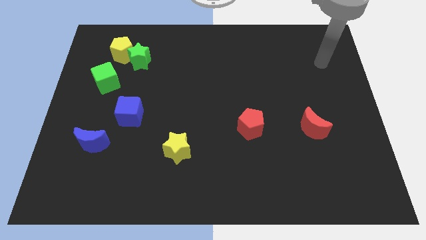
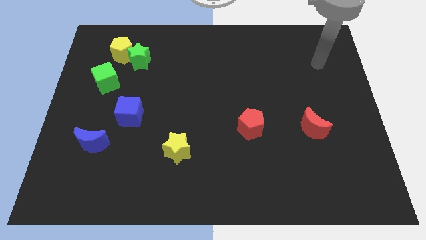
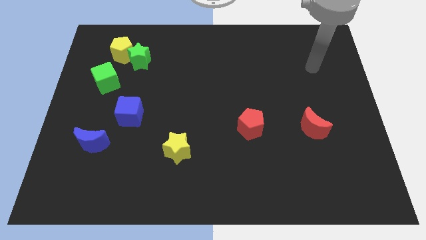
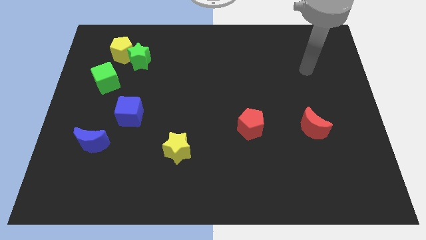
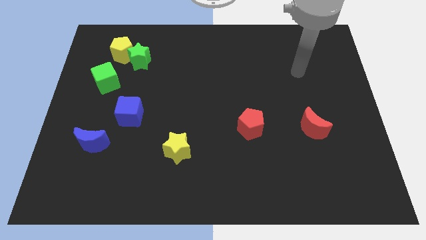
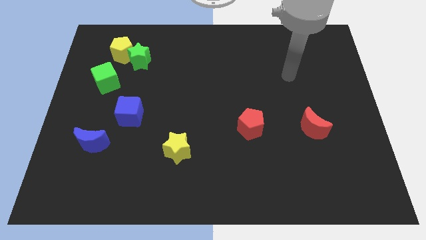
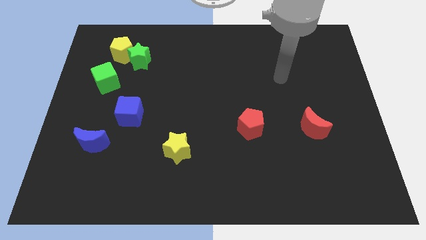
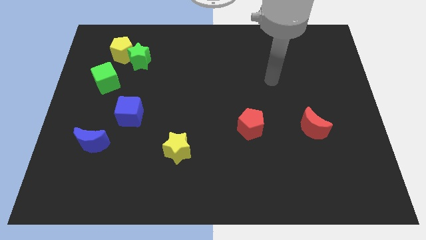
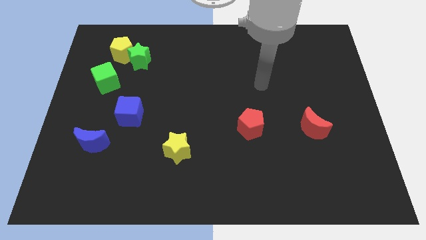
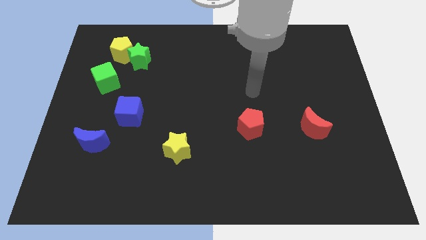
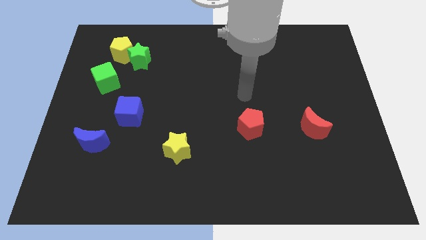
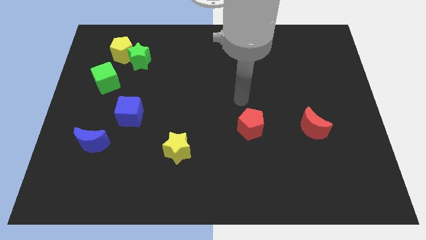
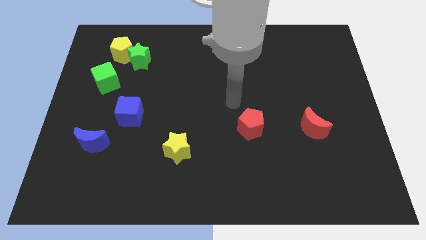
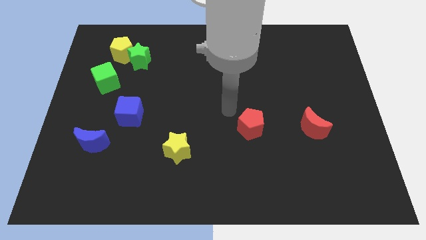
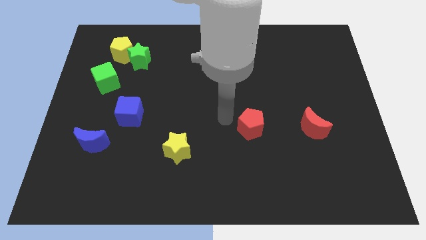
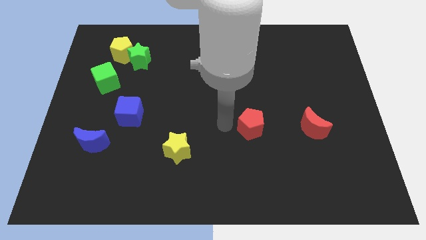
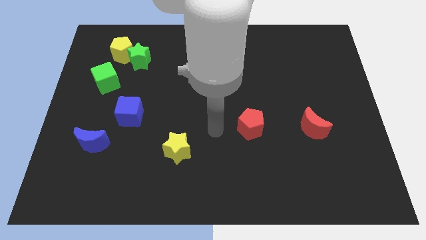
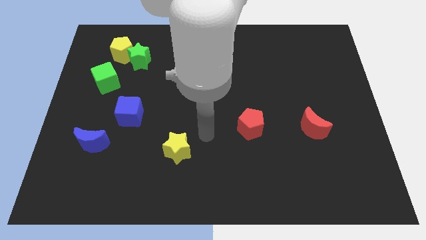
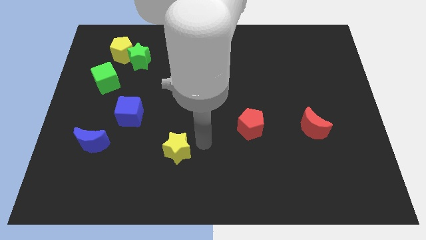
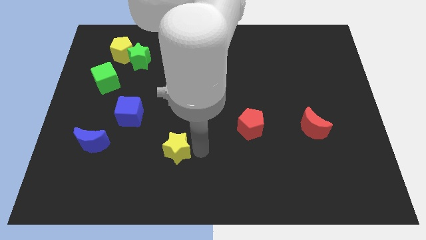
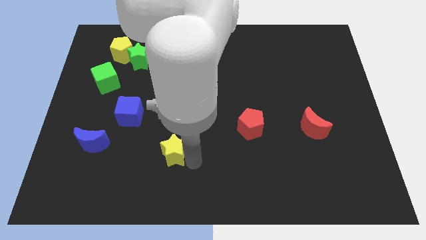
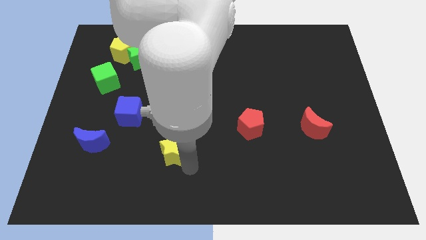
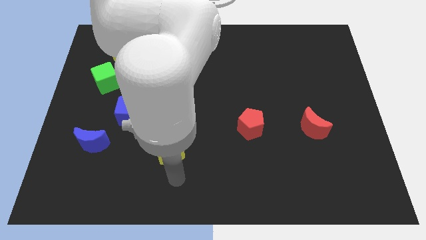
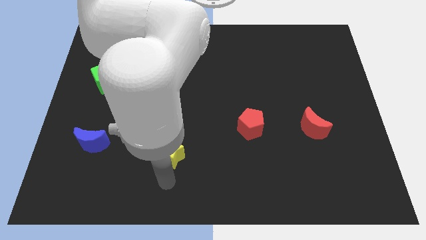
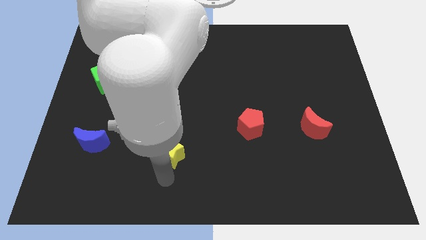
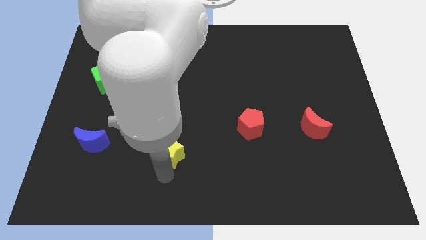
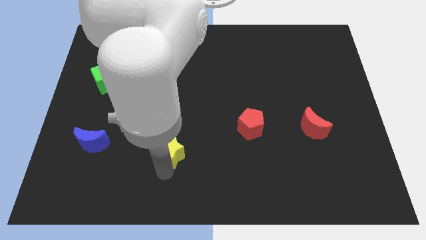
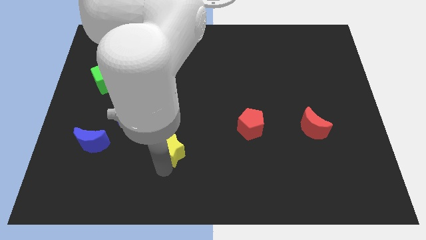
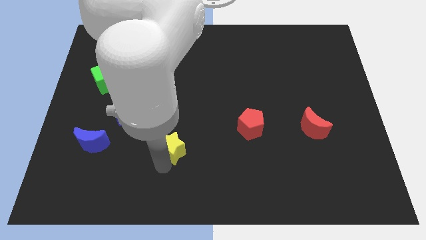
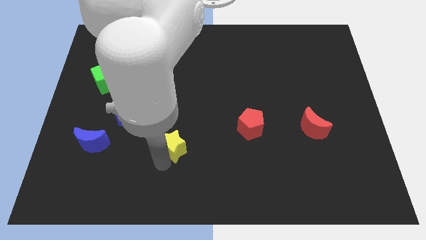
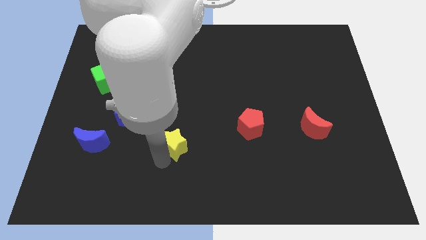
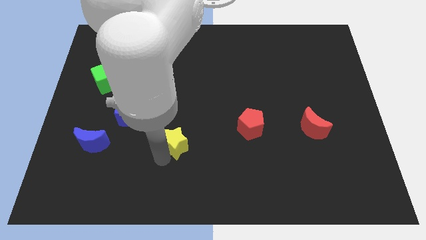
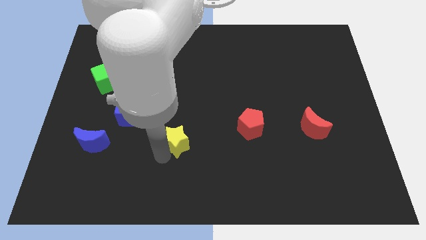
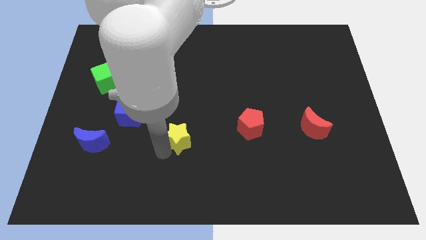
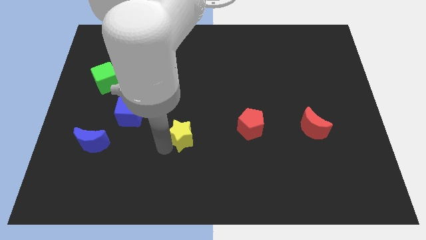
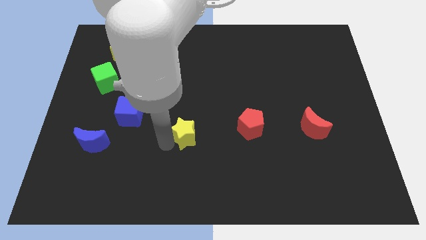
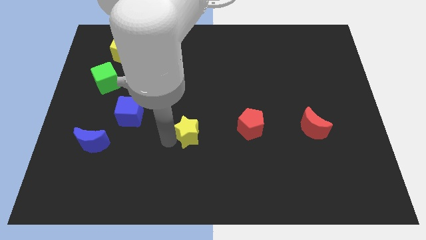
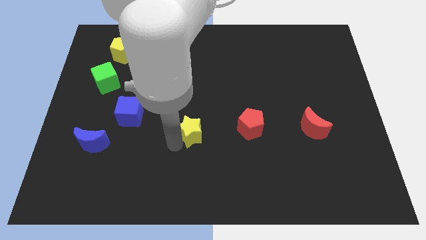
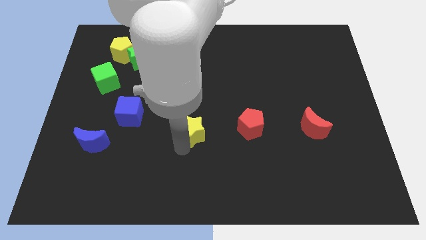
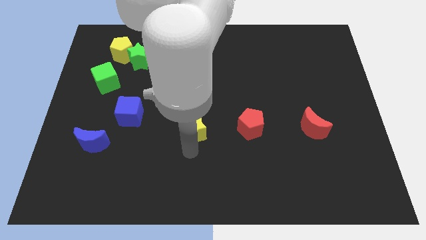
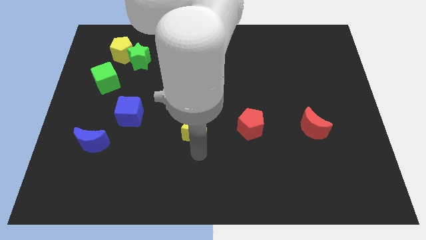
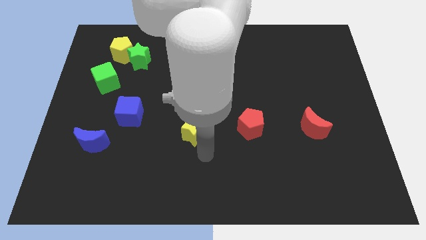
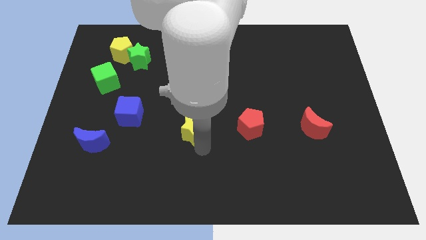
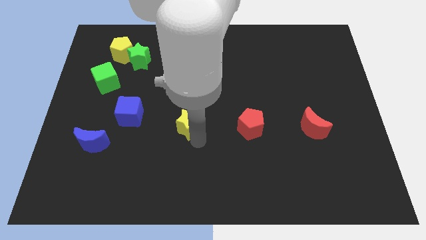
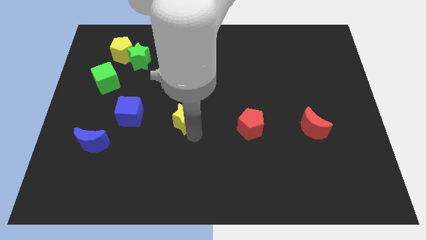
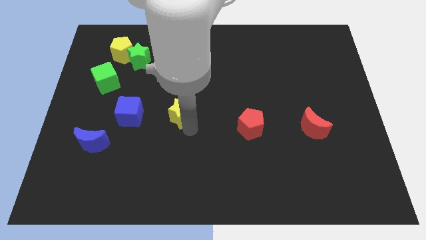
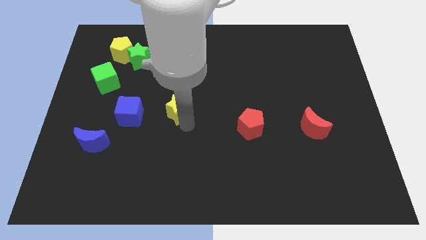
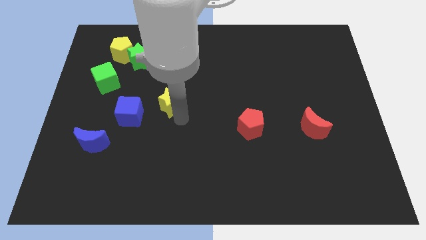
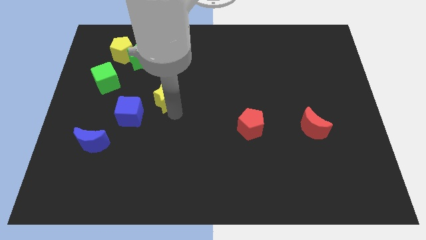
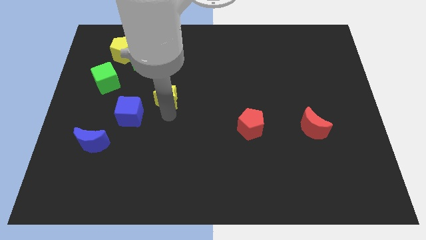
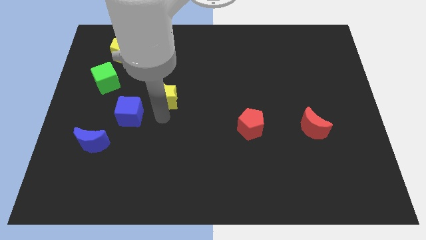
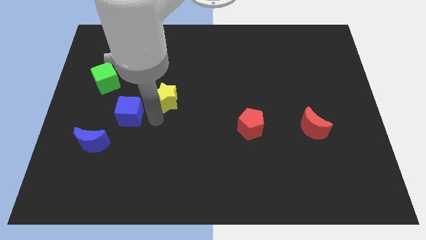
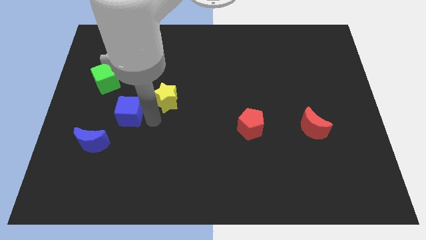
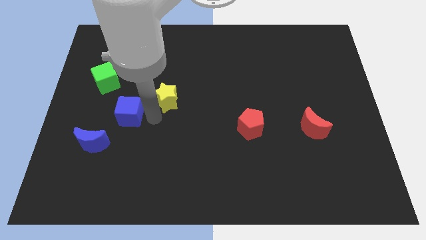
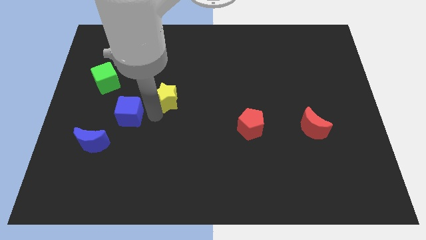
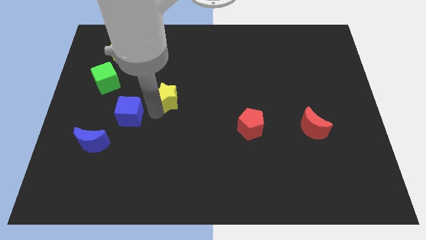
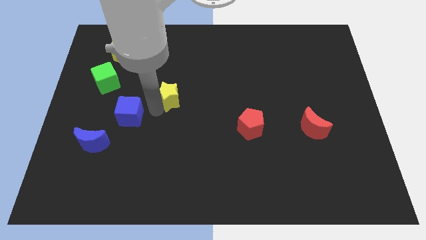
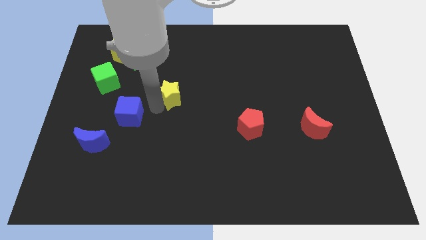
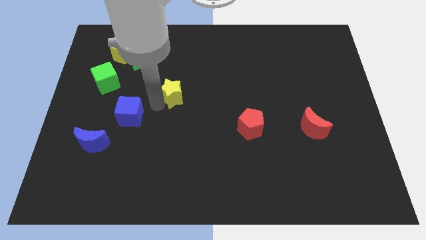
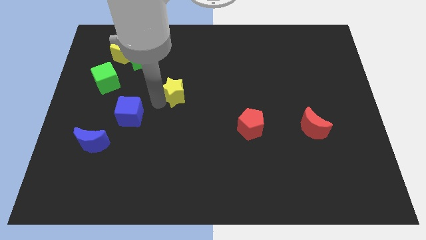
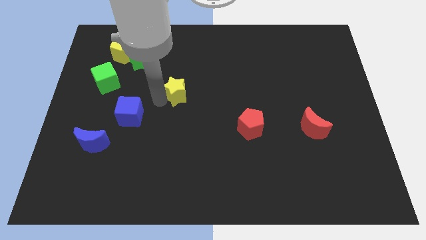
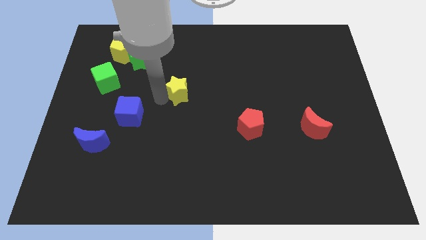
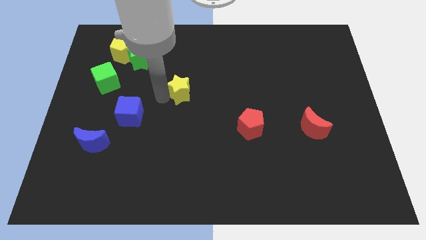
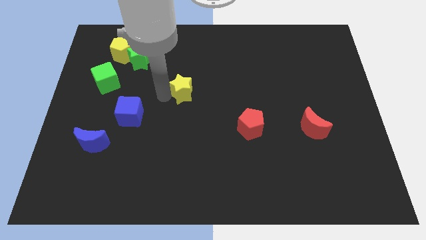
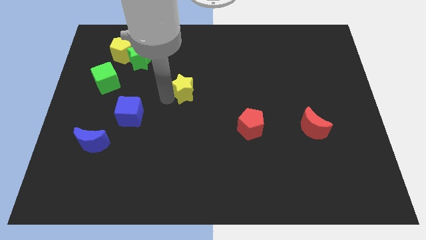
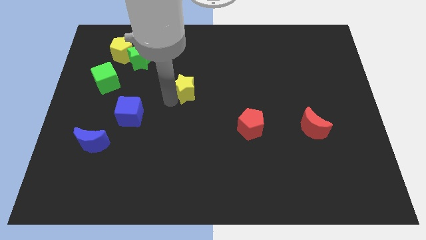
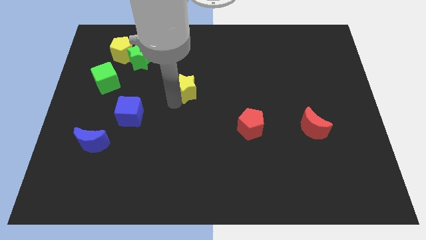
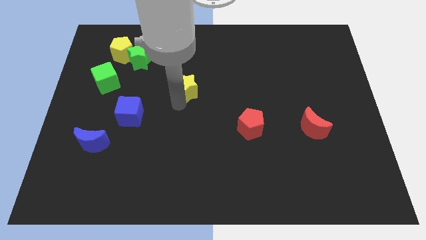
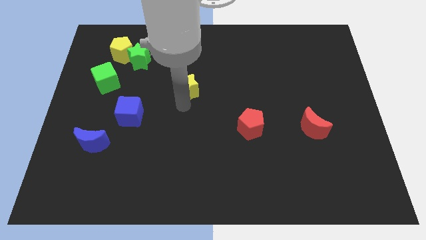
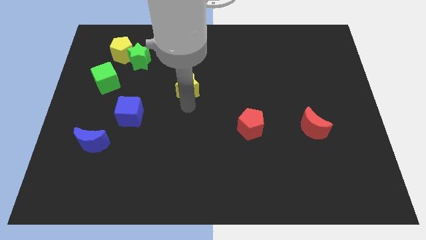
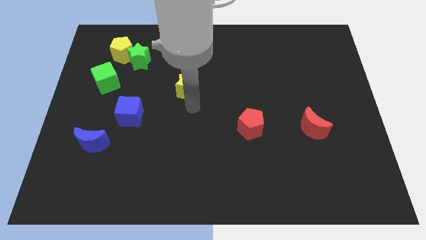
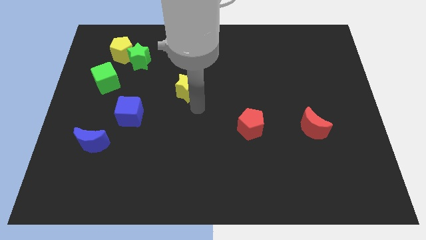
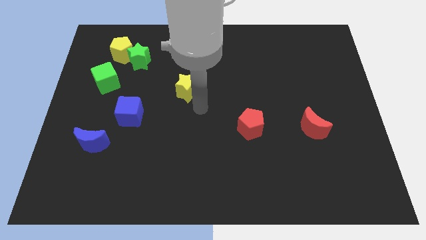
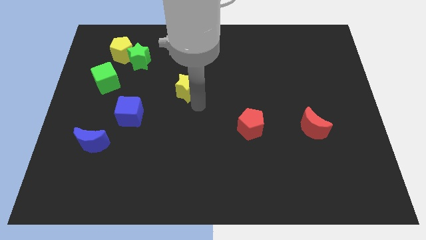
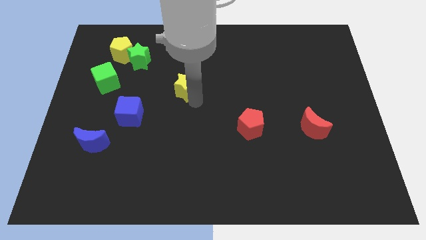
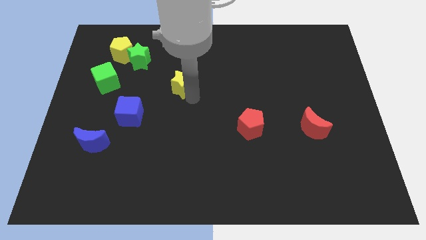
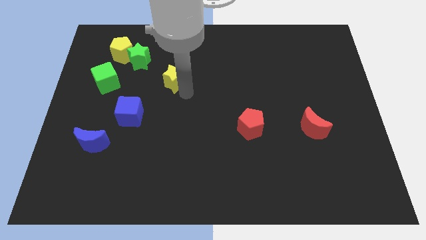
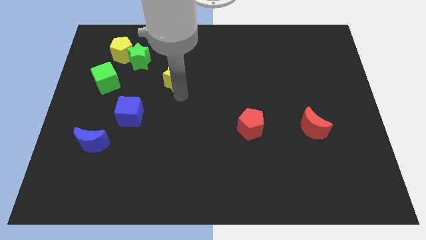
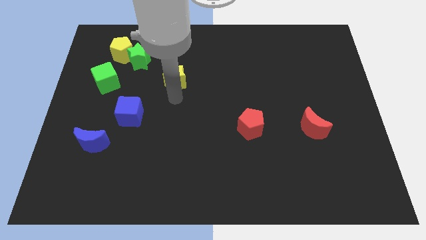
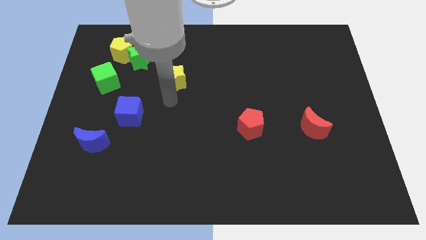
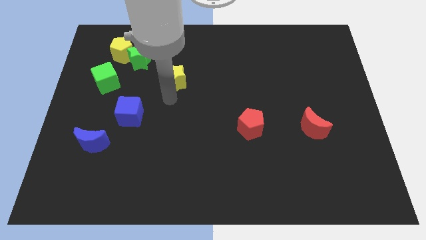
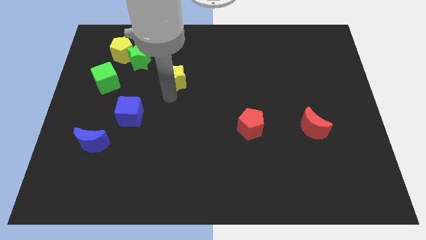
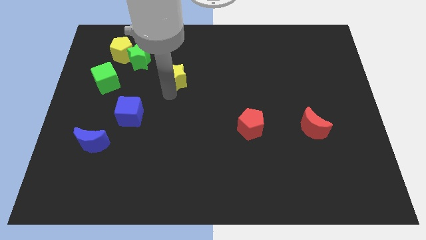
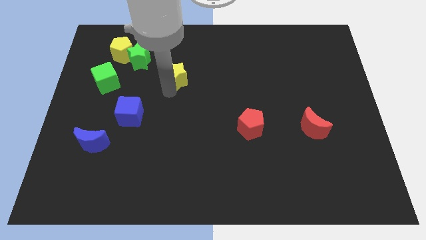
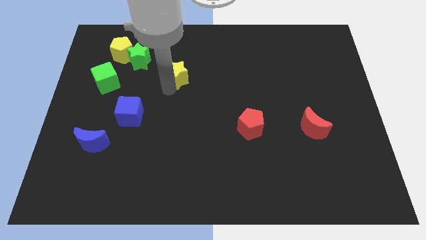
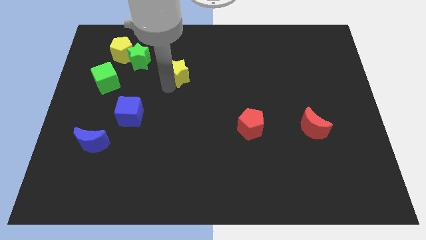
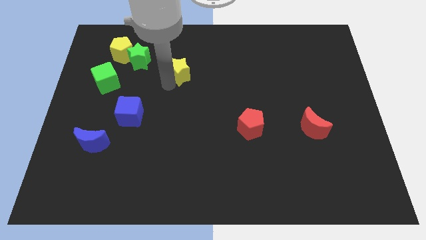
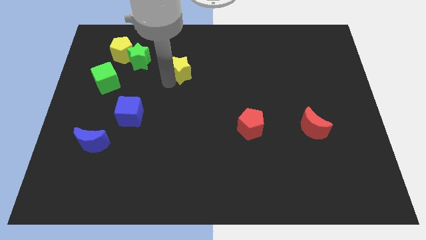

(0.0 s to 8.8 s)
move the yellow star to the right of the green star
